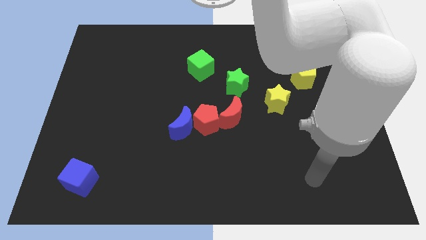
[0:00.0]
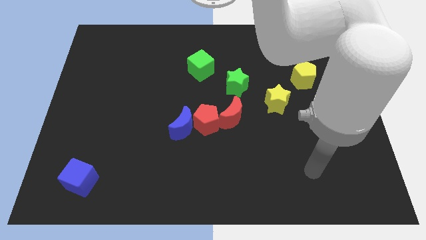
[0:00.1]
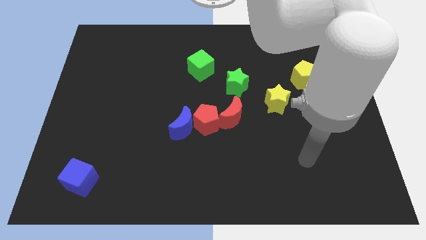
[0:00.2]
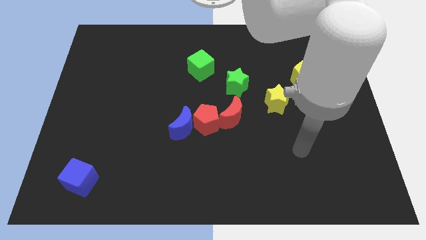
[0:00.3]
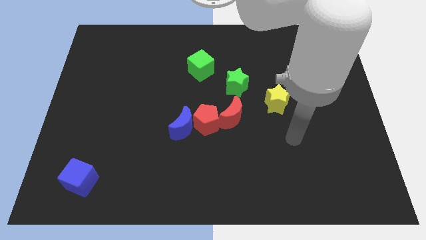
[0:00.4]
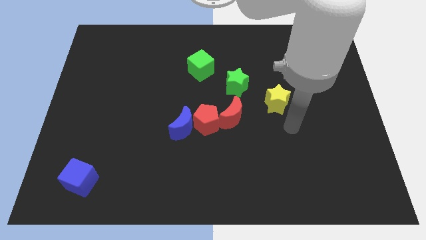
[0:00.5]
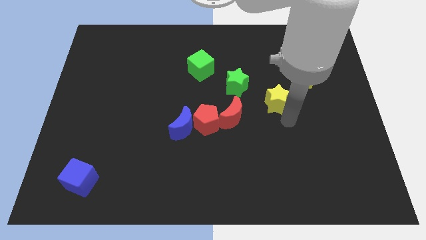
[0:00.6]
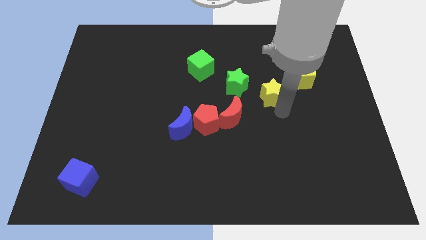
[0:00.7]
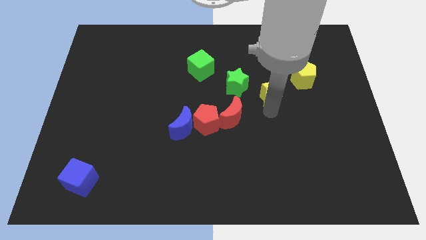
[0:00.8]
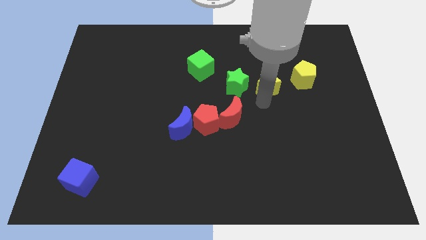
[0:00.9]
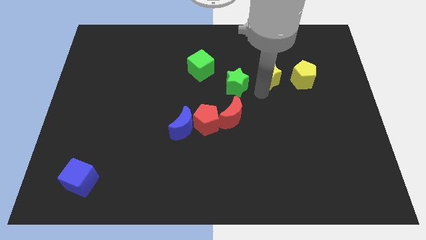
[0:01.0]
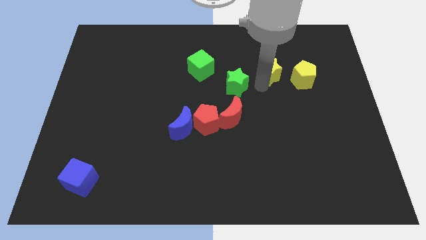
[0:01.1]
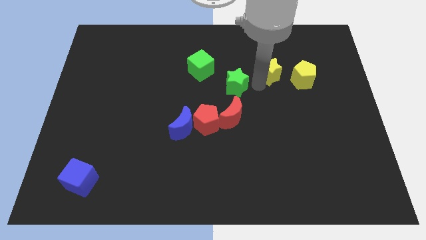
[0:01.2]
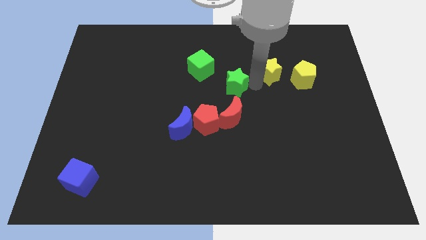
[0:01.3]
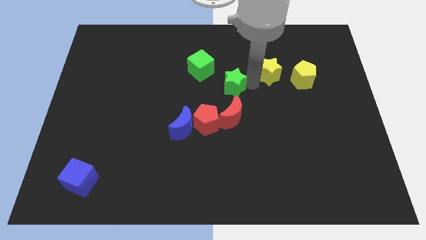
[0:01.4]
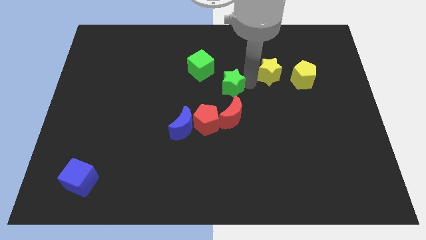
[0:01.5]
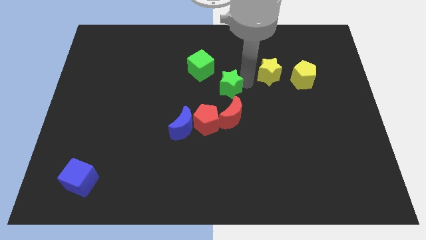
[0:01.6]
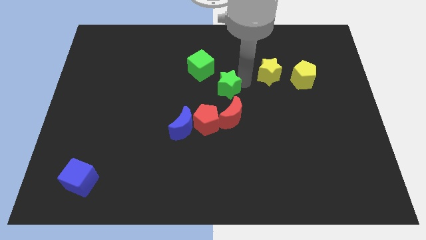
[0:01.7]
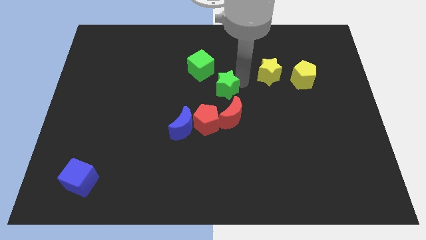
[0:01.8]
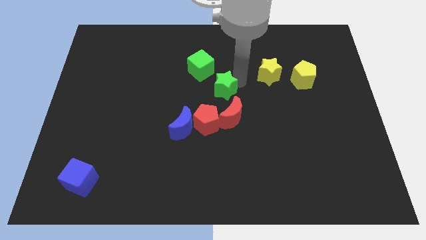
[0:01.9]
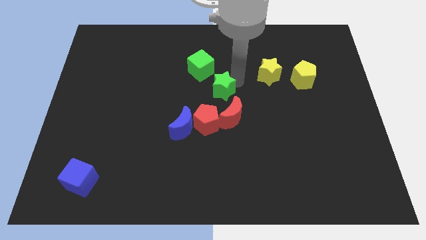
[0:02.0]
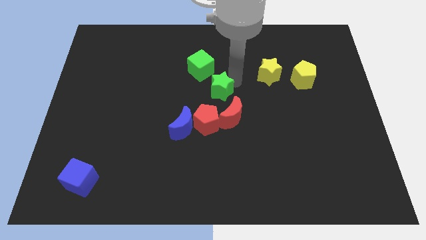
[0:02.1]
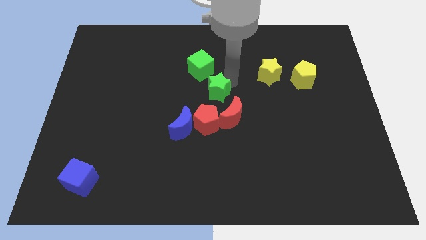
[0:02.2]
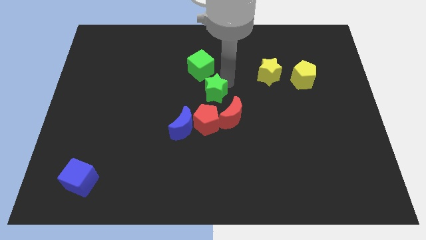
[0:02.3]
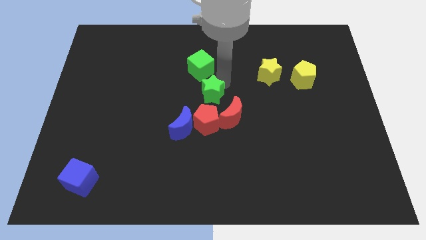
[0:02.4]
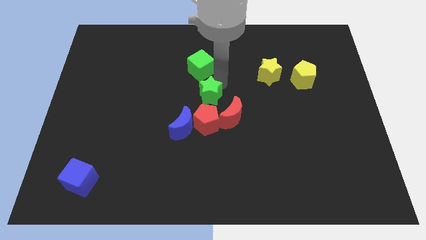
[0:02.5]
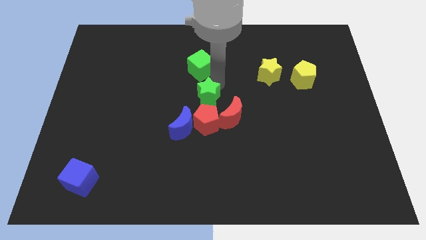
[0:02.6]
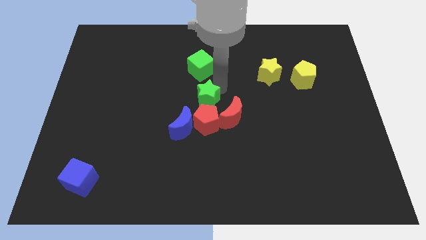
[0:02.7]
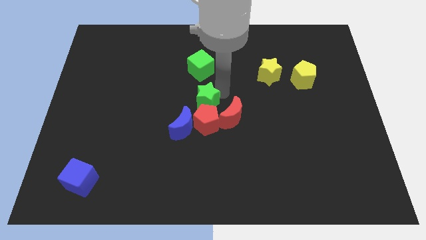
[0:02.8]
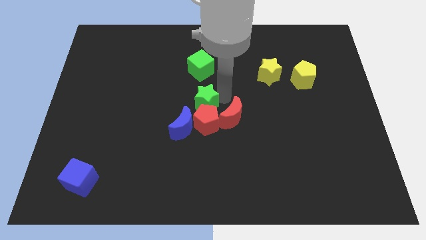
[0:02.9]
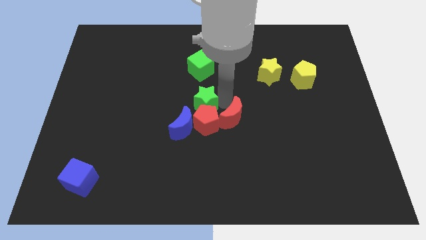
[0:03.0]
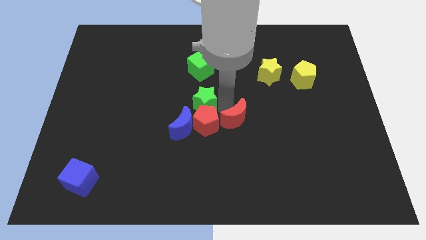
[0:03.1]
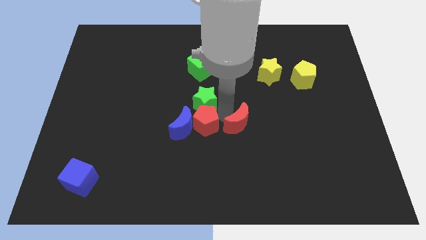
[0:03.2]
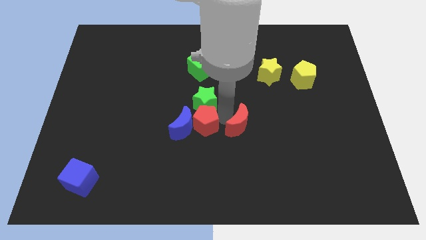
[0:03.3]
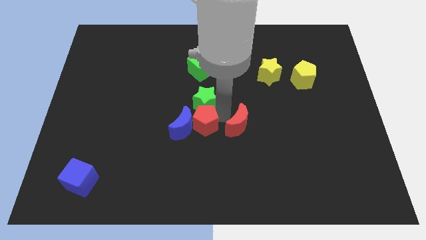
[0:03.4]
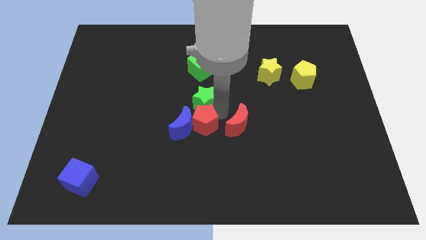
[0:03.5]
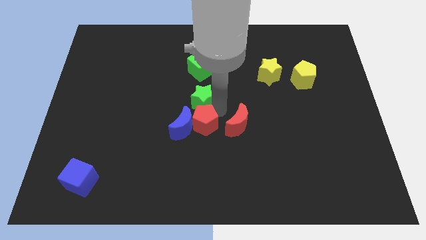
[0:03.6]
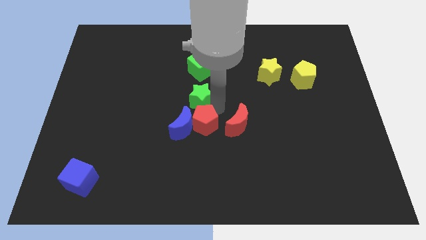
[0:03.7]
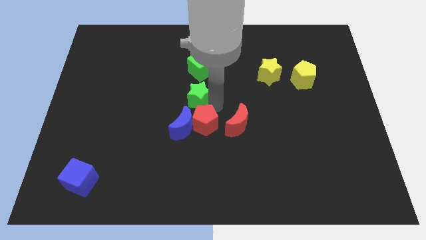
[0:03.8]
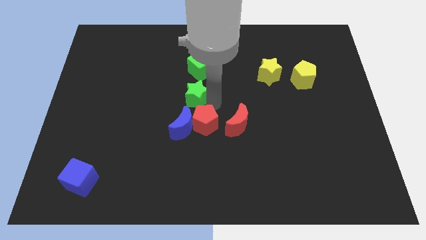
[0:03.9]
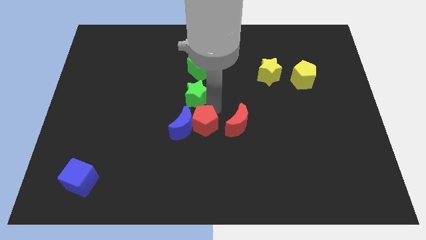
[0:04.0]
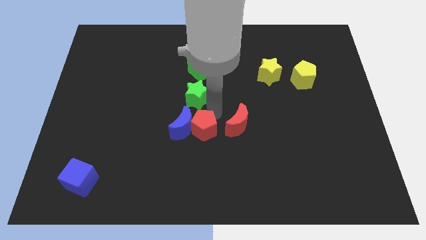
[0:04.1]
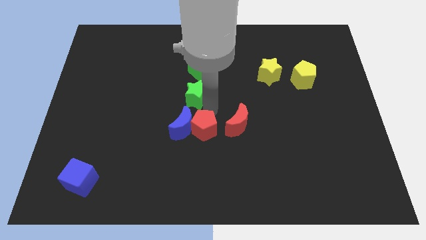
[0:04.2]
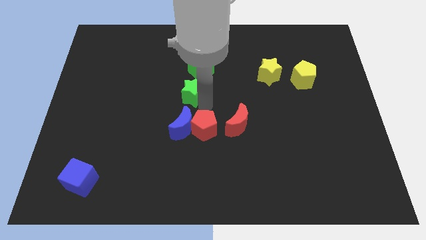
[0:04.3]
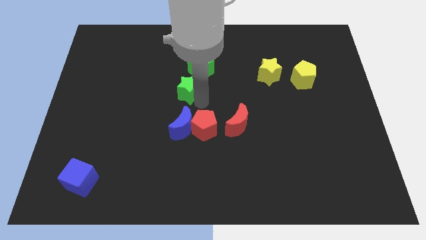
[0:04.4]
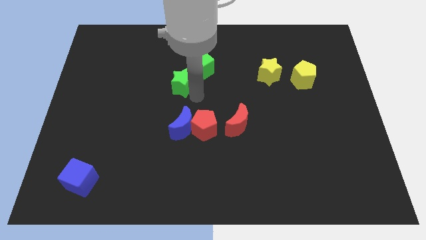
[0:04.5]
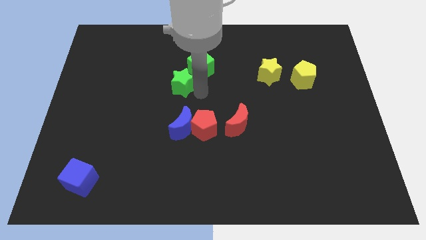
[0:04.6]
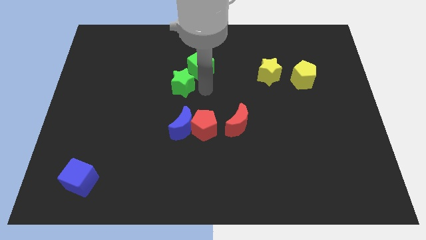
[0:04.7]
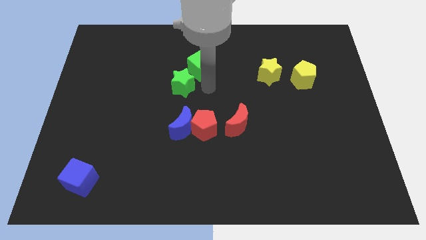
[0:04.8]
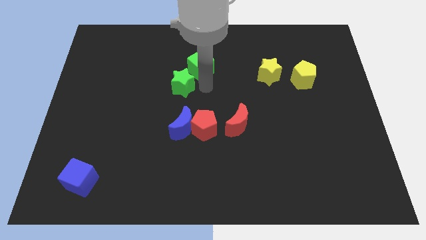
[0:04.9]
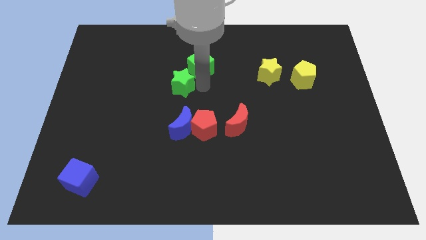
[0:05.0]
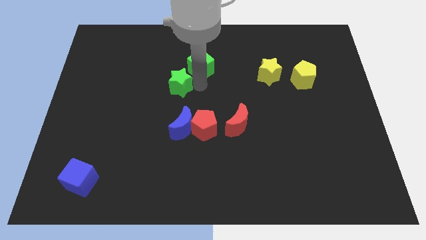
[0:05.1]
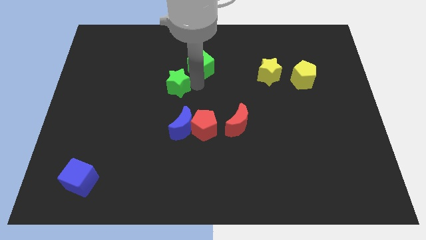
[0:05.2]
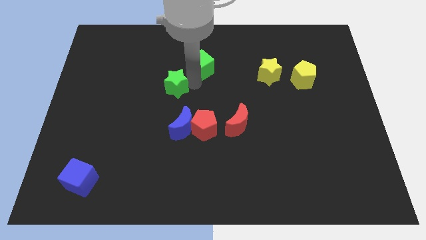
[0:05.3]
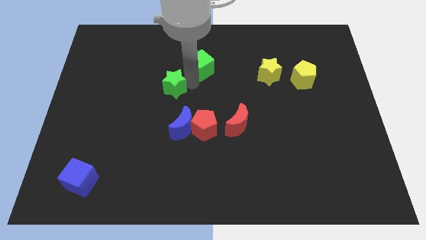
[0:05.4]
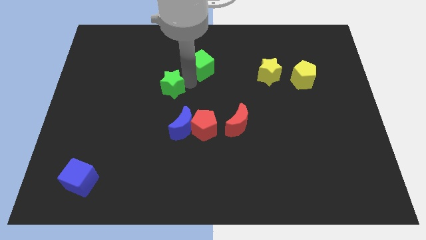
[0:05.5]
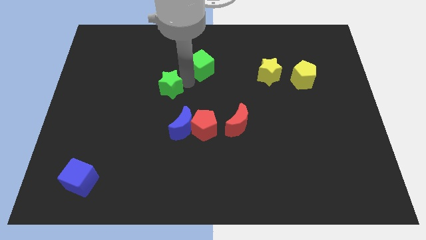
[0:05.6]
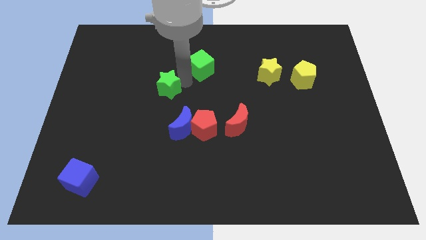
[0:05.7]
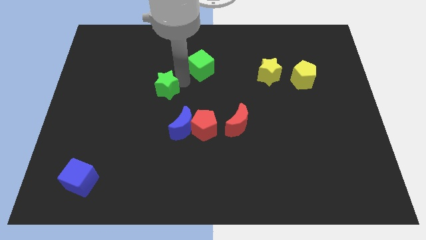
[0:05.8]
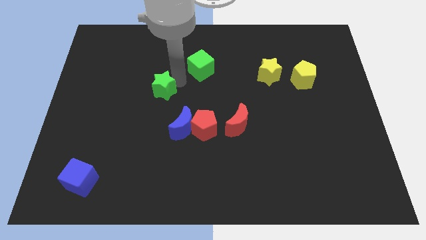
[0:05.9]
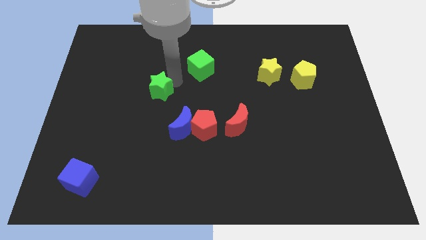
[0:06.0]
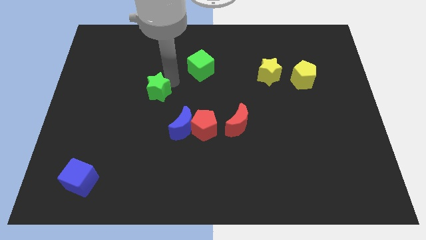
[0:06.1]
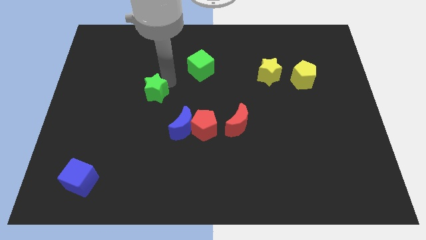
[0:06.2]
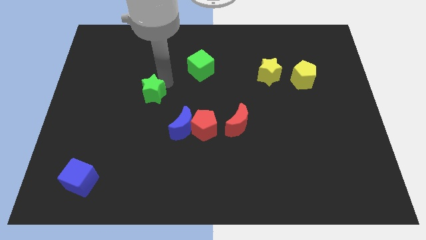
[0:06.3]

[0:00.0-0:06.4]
slide the green star to the left

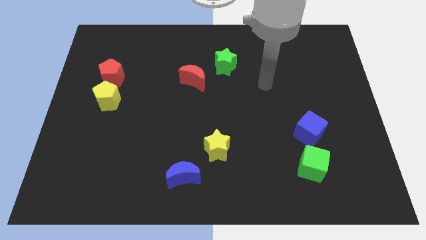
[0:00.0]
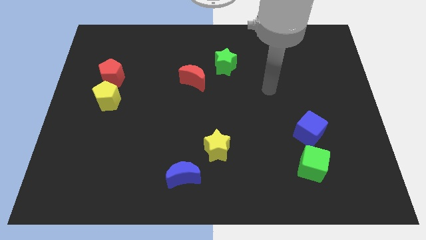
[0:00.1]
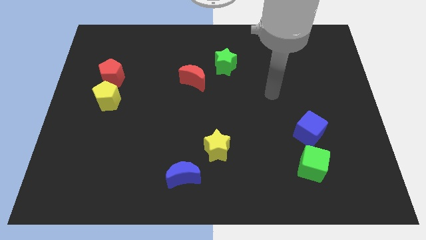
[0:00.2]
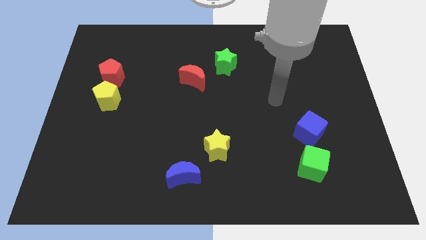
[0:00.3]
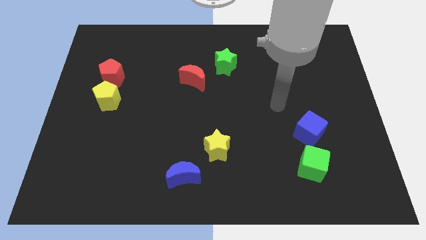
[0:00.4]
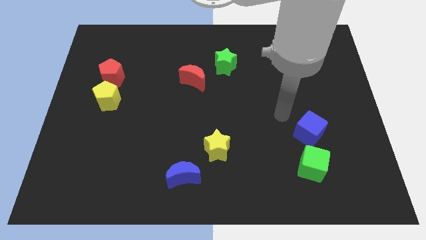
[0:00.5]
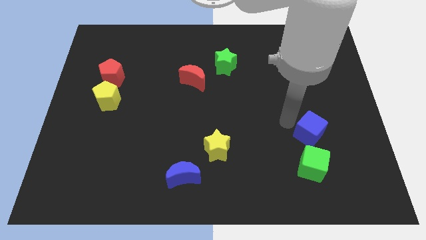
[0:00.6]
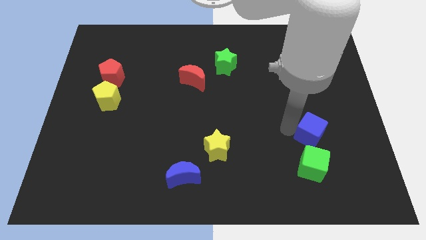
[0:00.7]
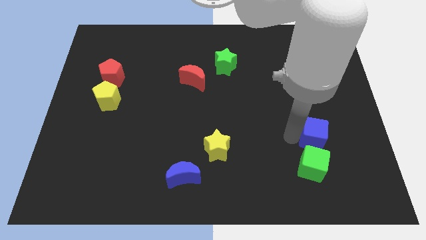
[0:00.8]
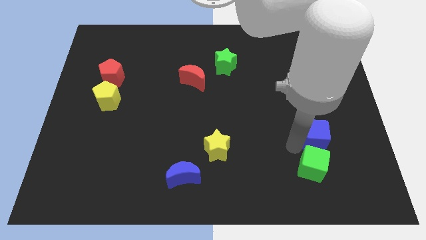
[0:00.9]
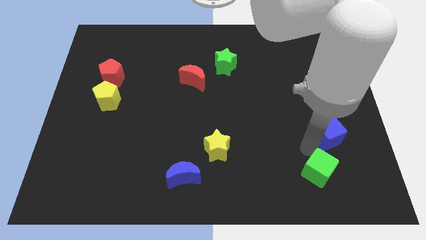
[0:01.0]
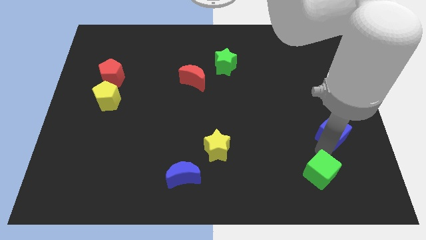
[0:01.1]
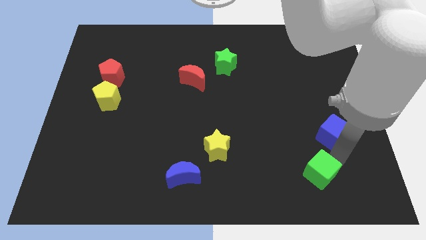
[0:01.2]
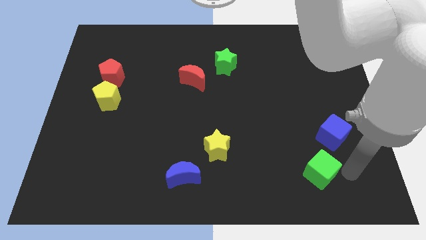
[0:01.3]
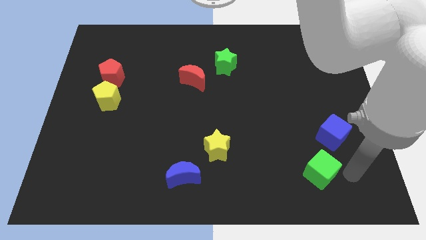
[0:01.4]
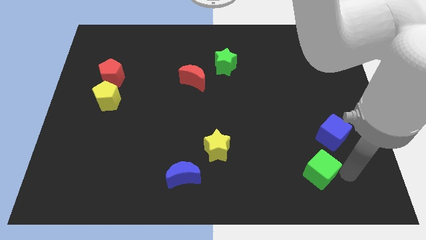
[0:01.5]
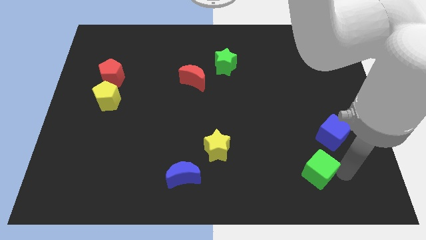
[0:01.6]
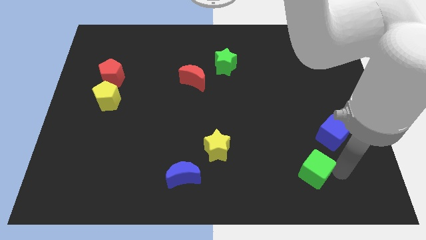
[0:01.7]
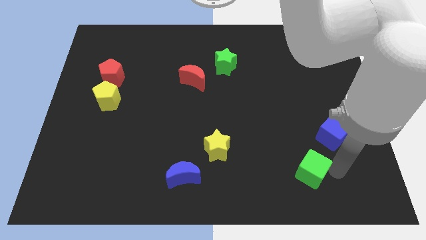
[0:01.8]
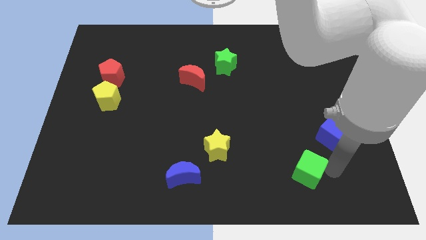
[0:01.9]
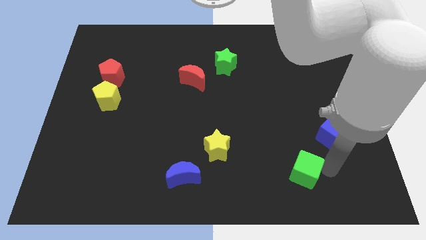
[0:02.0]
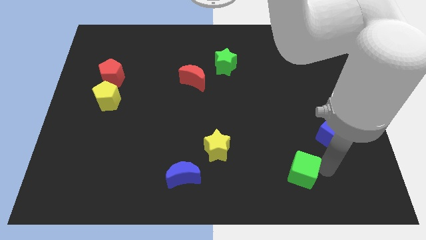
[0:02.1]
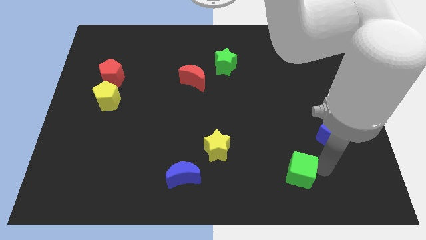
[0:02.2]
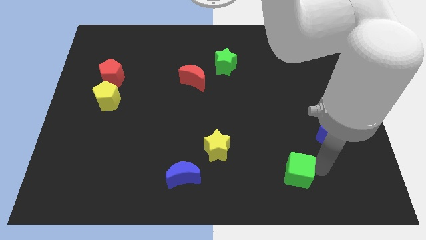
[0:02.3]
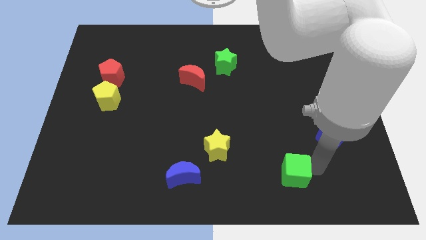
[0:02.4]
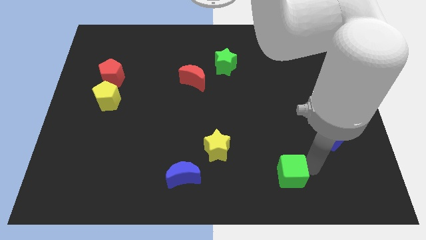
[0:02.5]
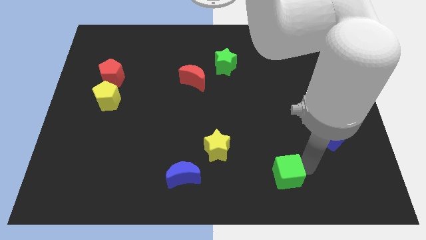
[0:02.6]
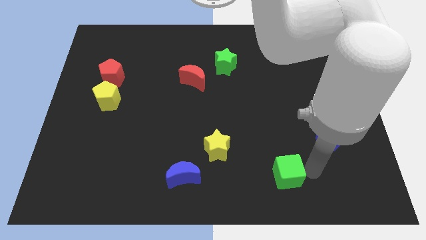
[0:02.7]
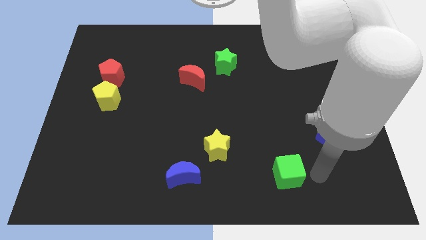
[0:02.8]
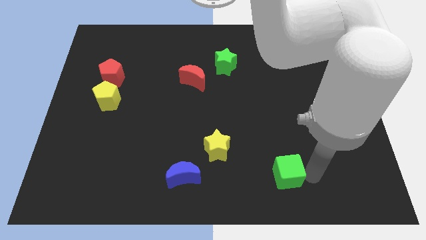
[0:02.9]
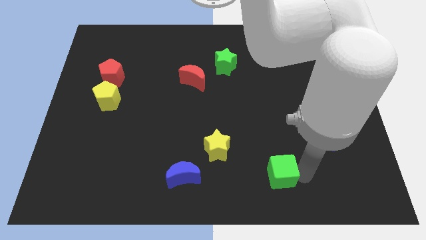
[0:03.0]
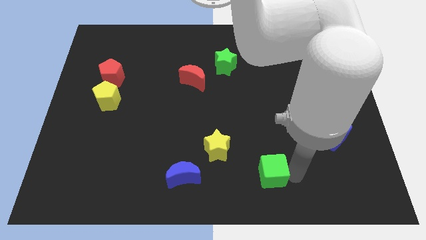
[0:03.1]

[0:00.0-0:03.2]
slightly push the green cube to the left
